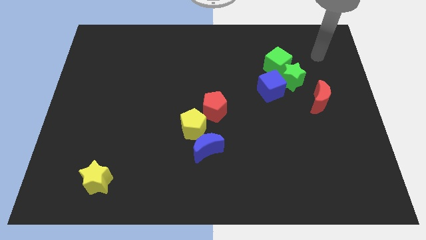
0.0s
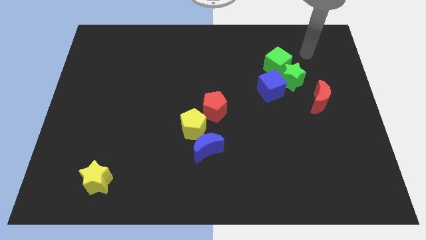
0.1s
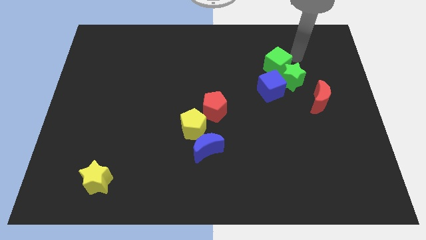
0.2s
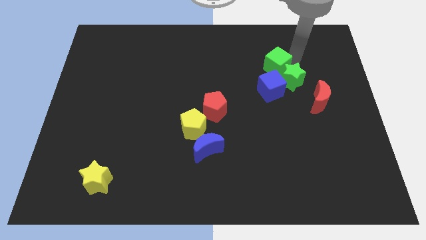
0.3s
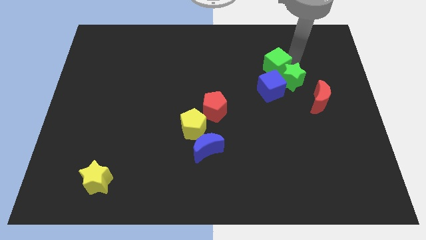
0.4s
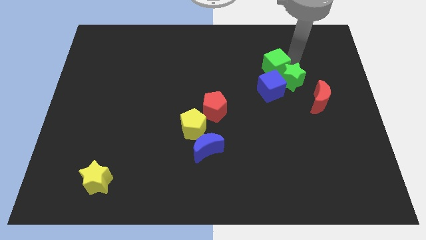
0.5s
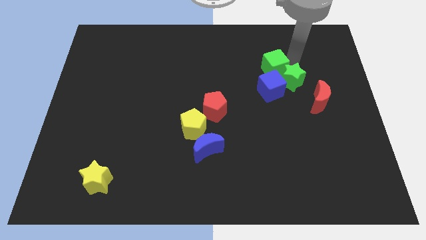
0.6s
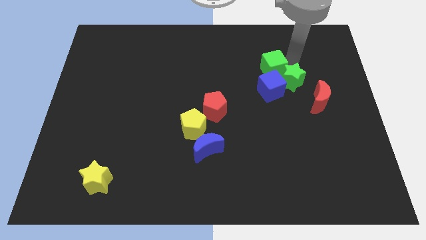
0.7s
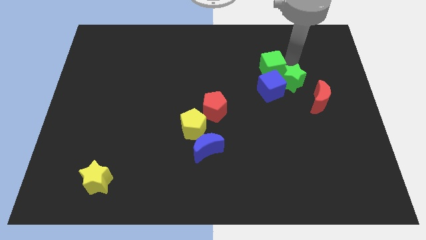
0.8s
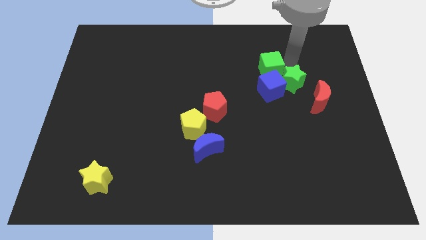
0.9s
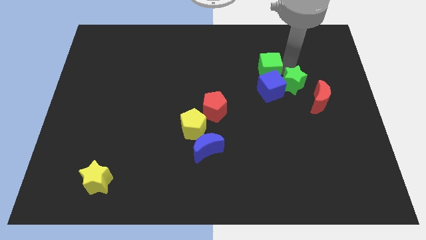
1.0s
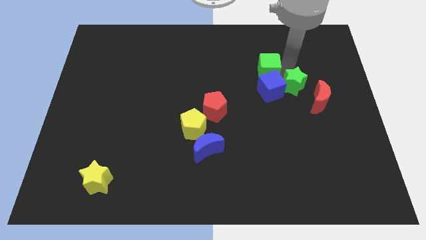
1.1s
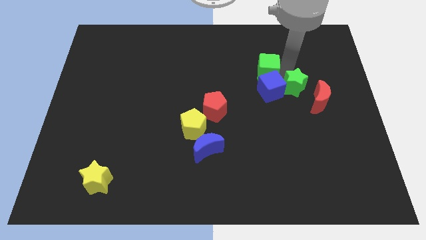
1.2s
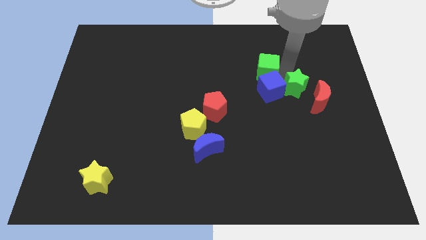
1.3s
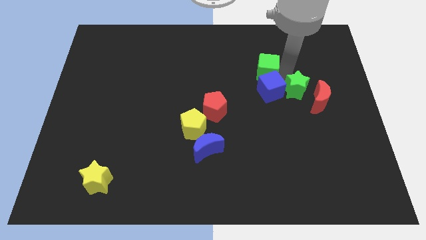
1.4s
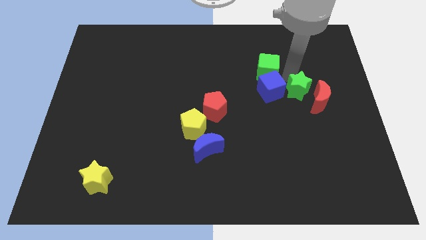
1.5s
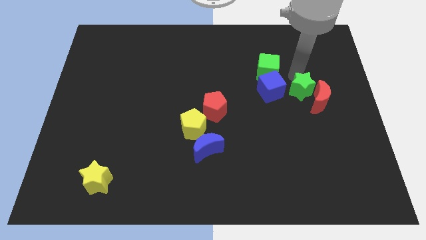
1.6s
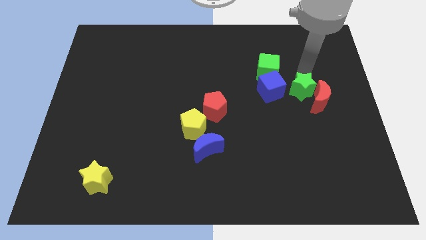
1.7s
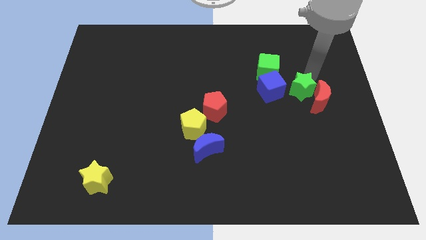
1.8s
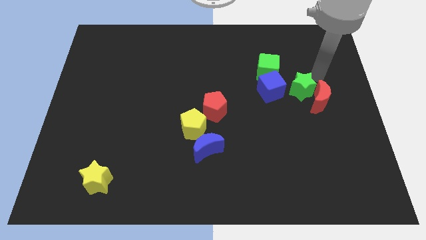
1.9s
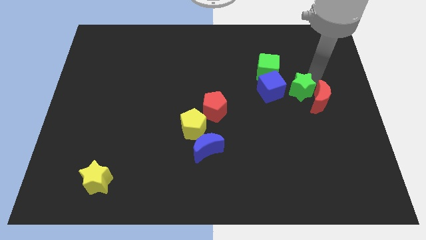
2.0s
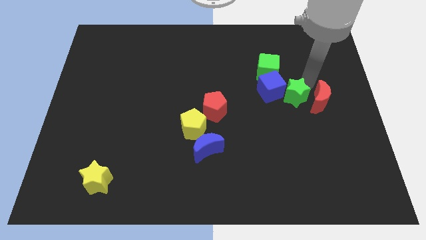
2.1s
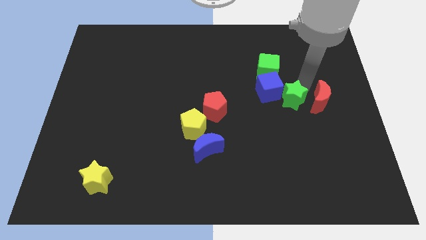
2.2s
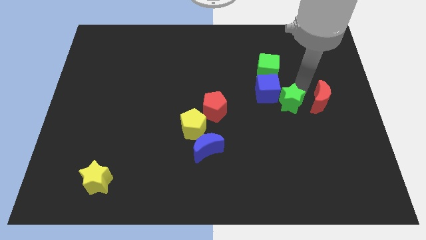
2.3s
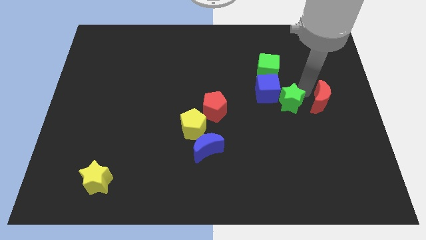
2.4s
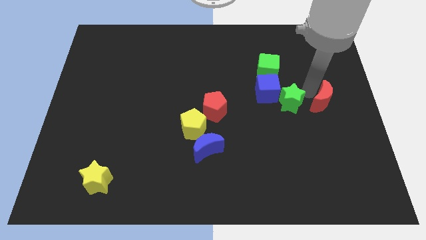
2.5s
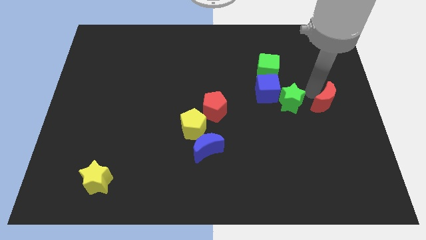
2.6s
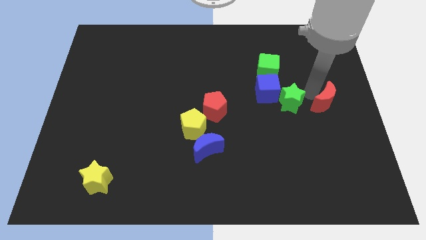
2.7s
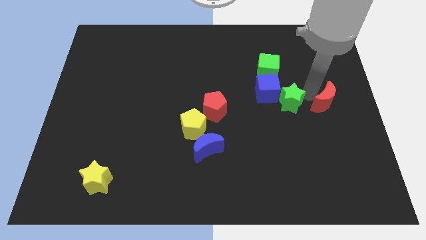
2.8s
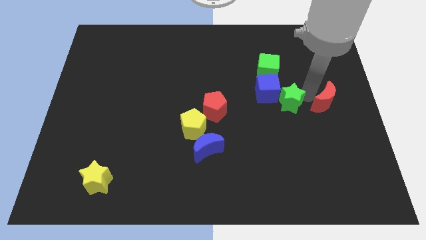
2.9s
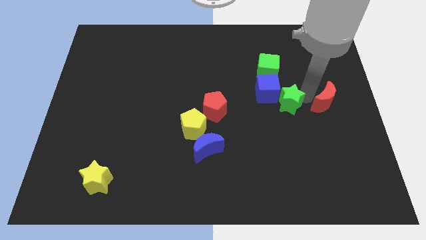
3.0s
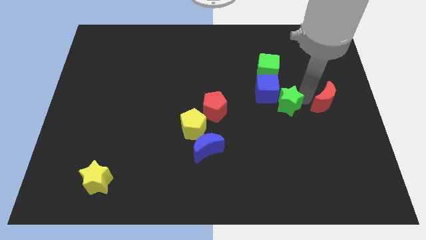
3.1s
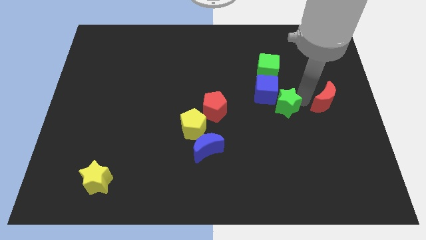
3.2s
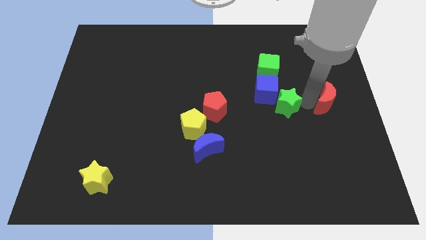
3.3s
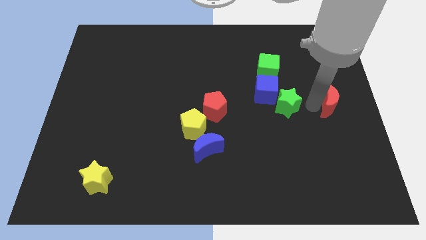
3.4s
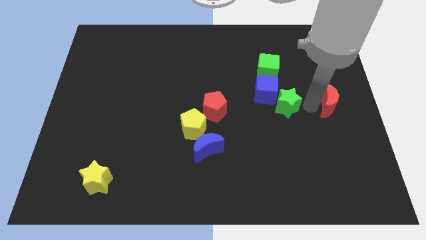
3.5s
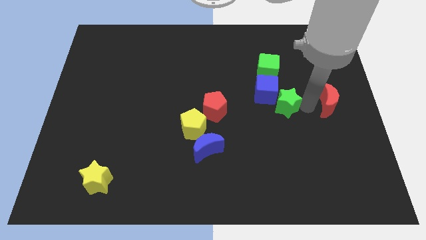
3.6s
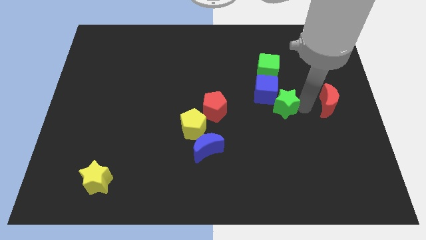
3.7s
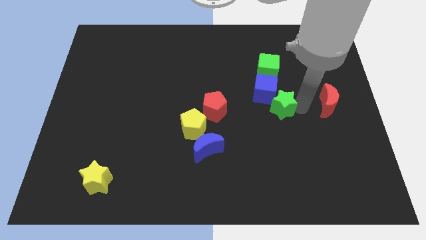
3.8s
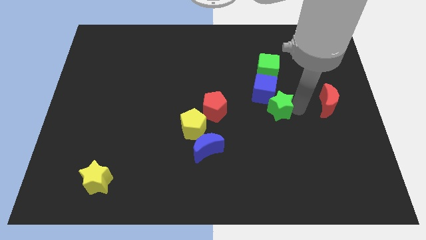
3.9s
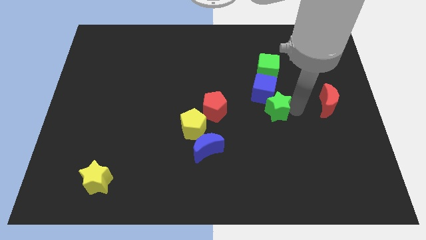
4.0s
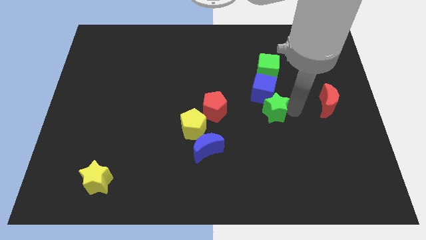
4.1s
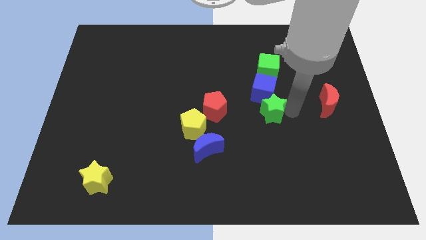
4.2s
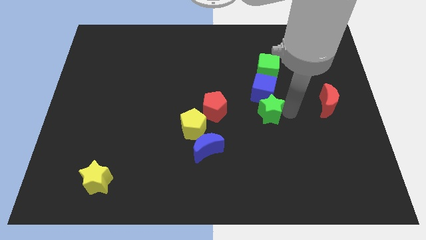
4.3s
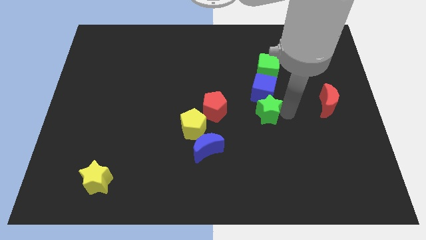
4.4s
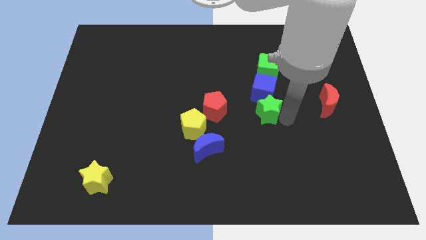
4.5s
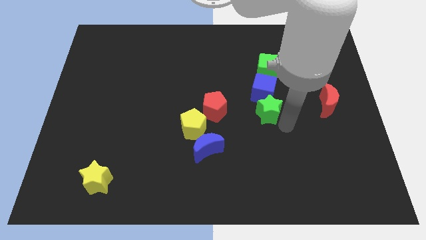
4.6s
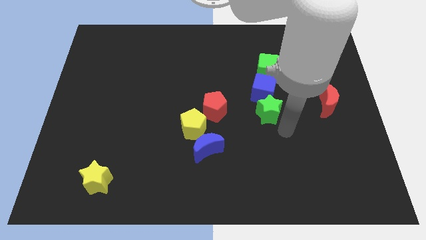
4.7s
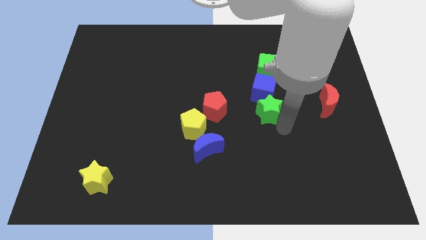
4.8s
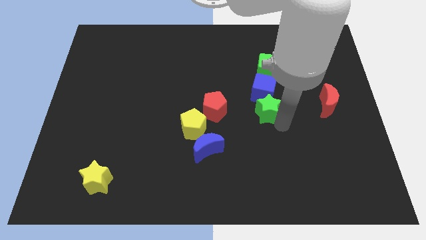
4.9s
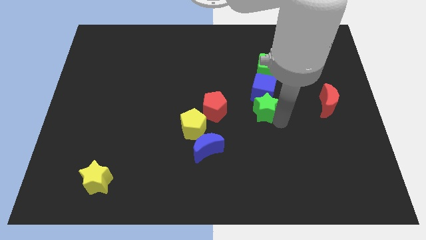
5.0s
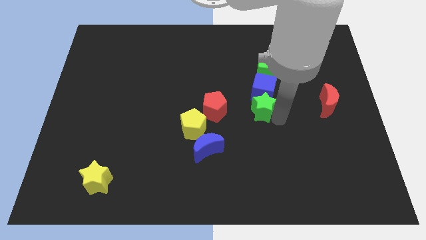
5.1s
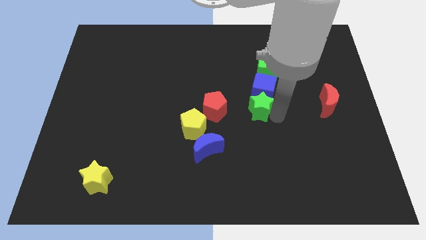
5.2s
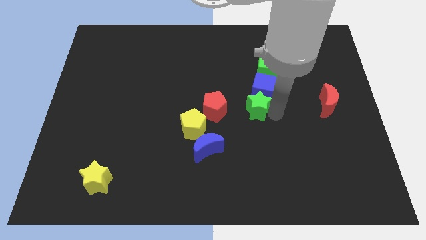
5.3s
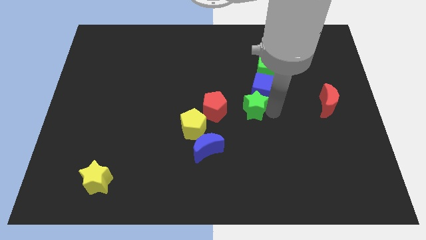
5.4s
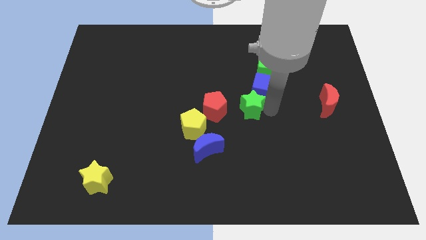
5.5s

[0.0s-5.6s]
slightly move the green star to the left

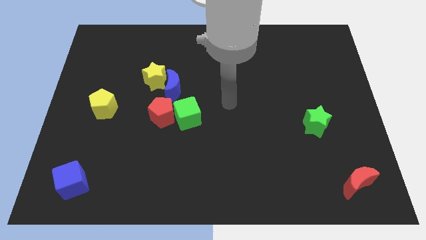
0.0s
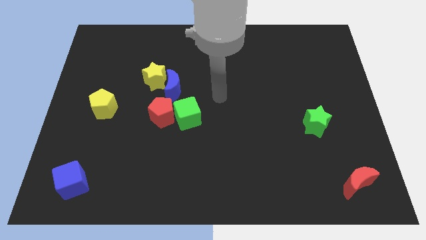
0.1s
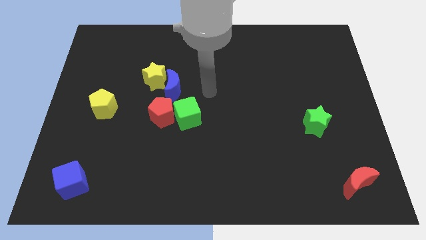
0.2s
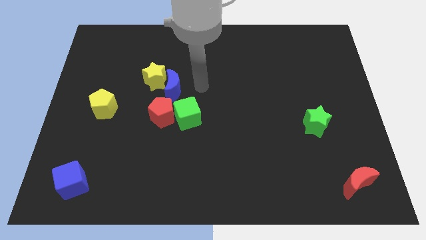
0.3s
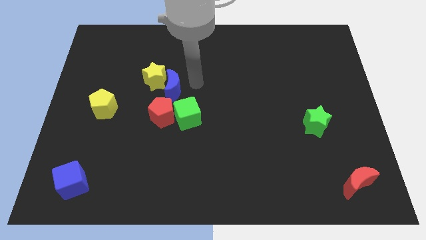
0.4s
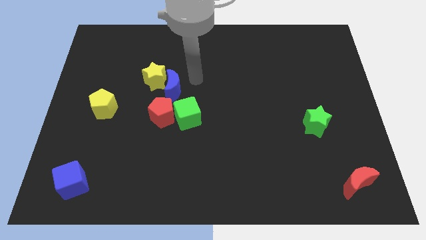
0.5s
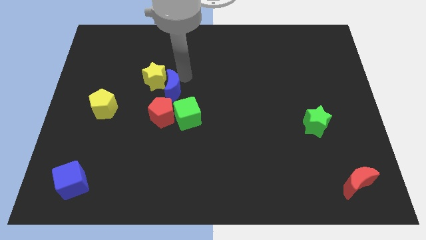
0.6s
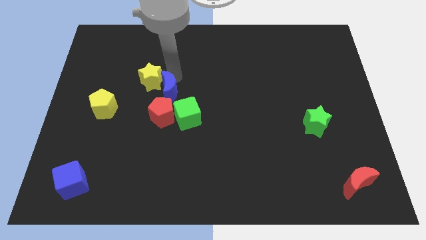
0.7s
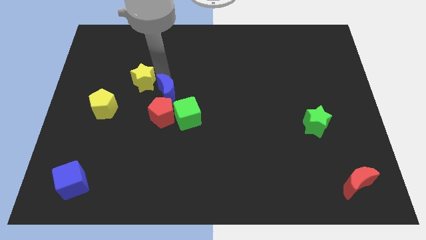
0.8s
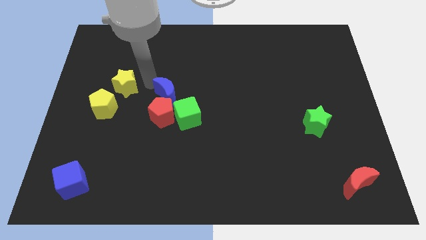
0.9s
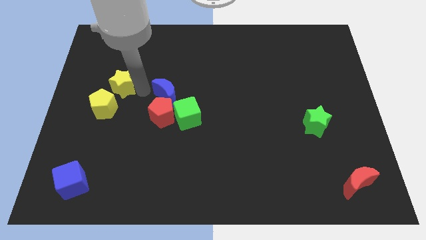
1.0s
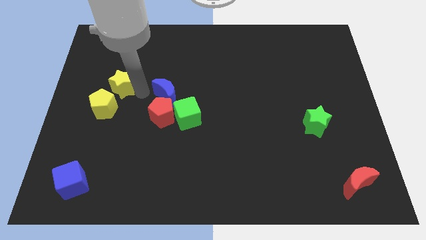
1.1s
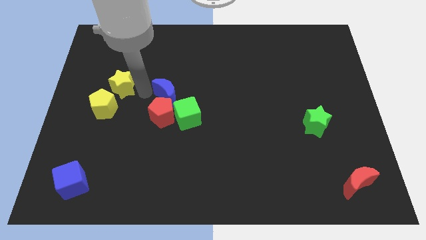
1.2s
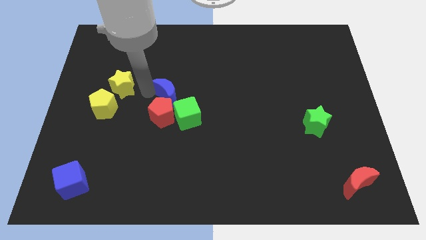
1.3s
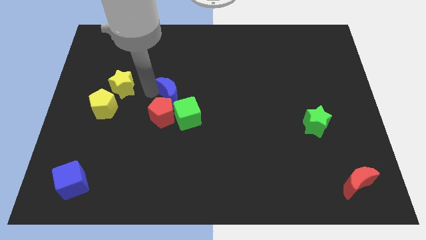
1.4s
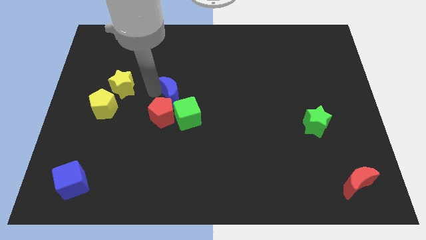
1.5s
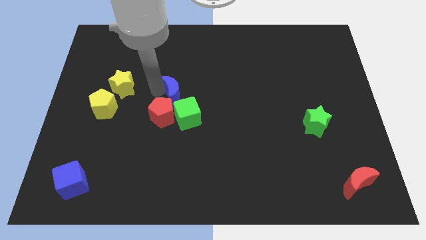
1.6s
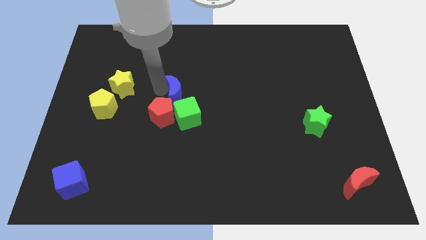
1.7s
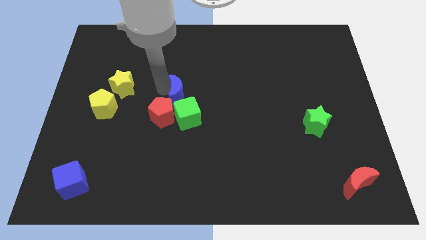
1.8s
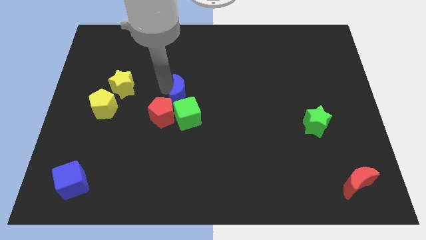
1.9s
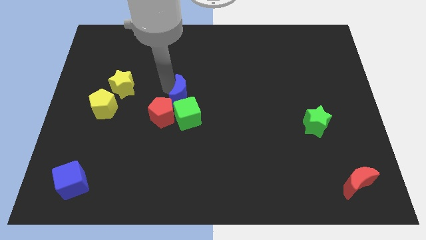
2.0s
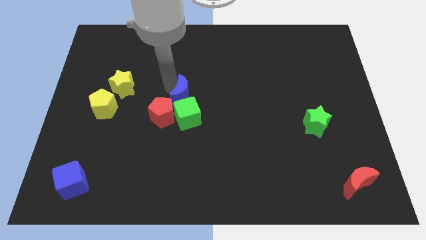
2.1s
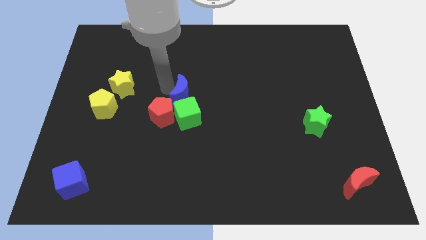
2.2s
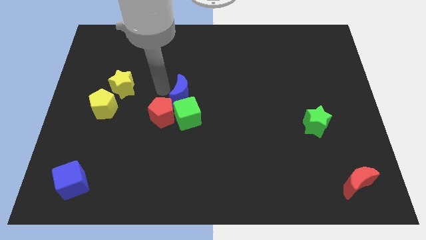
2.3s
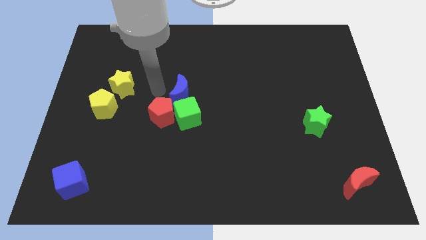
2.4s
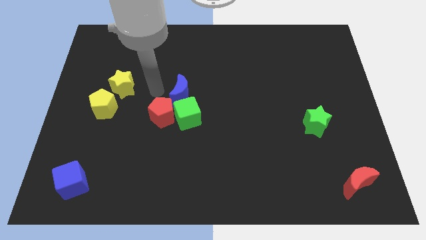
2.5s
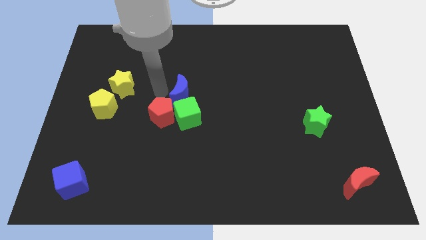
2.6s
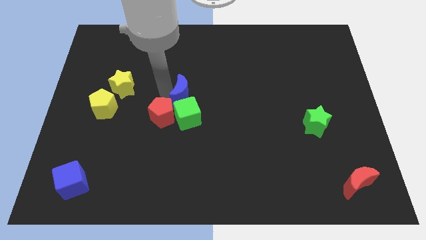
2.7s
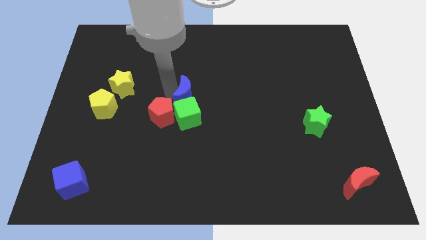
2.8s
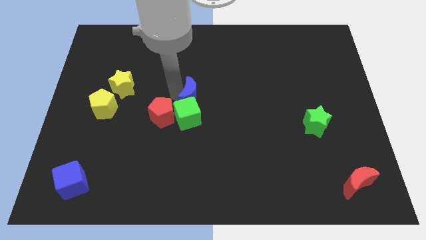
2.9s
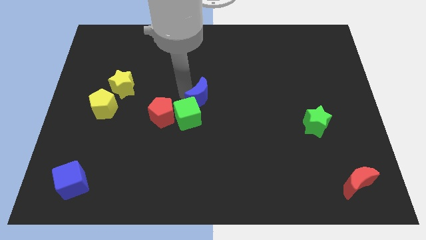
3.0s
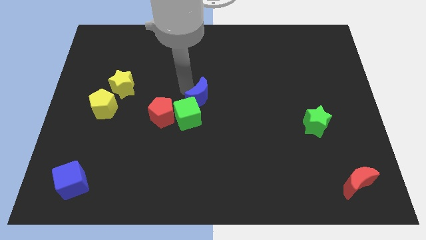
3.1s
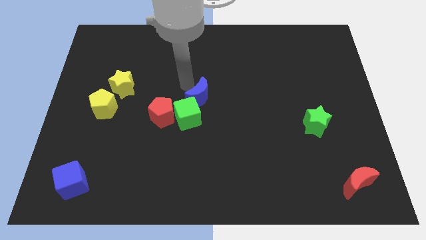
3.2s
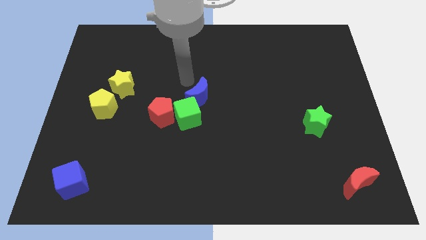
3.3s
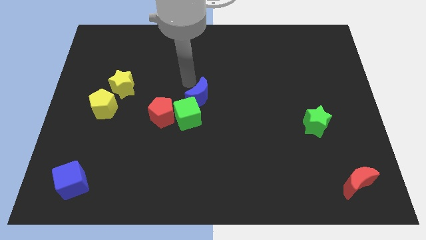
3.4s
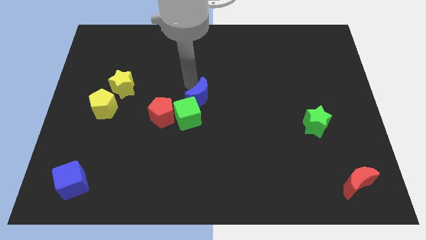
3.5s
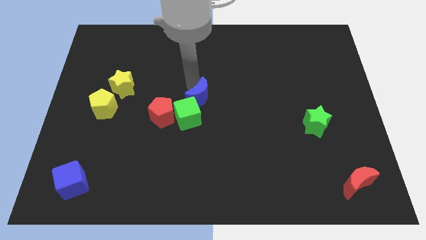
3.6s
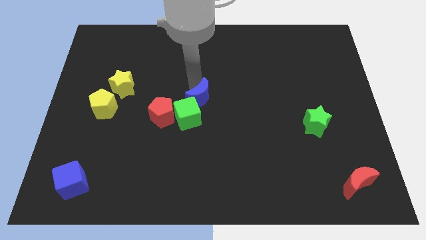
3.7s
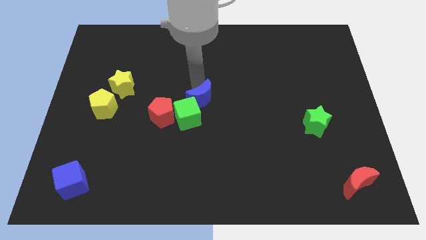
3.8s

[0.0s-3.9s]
push the blue moon a bit downwards and to the right
